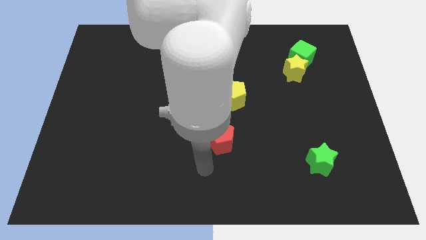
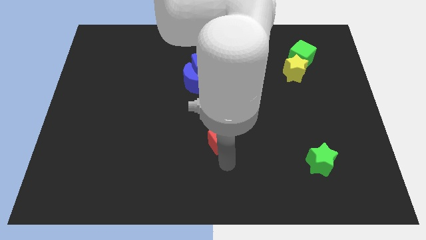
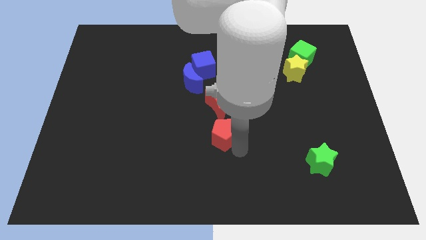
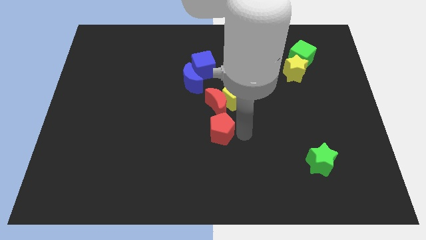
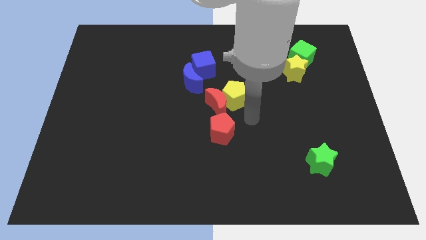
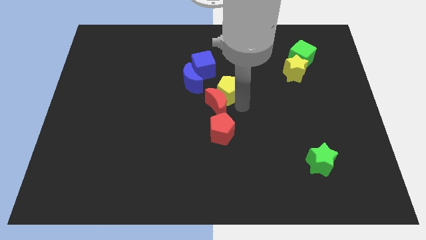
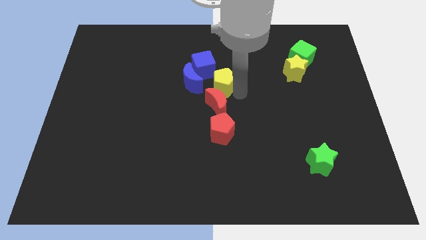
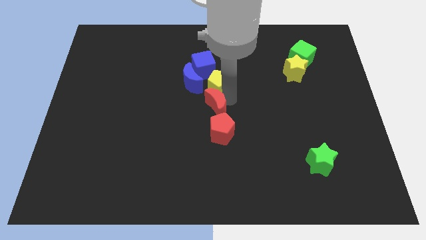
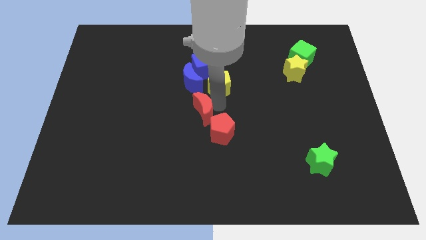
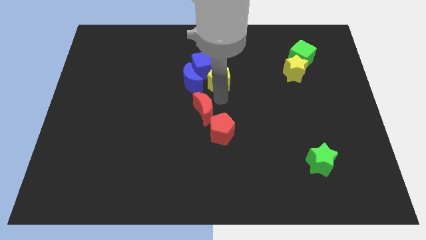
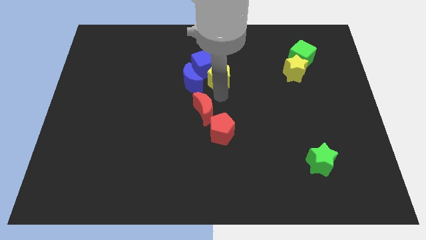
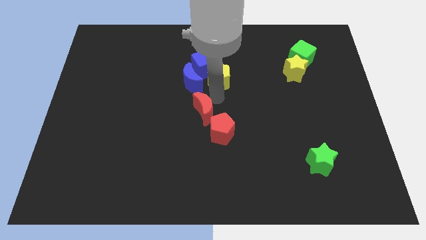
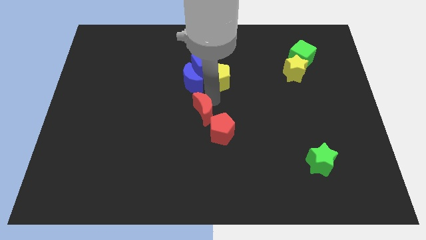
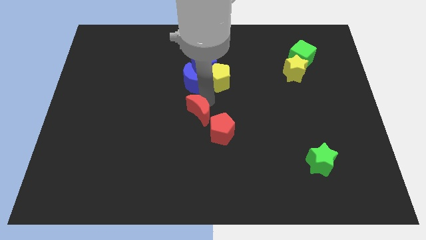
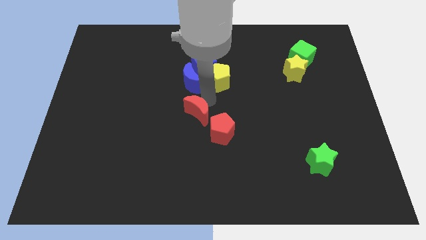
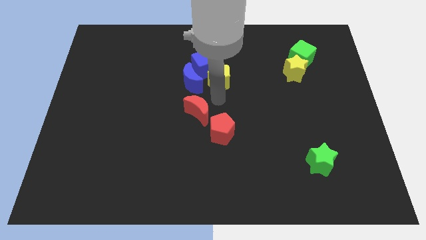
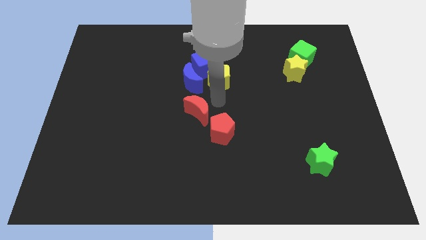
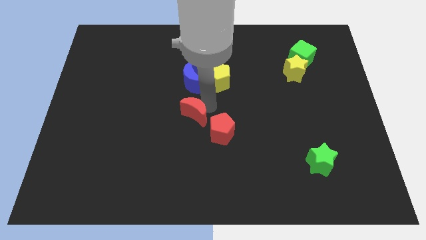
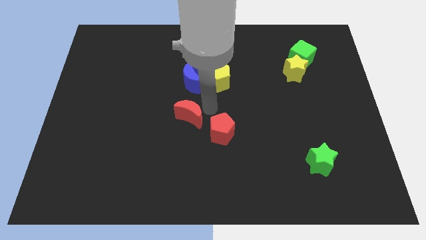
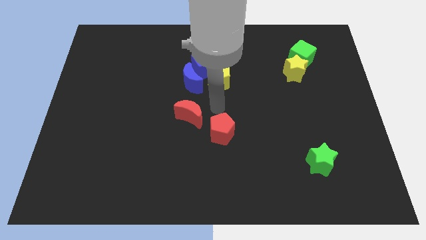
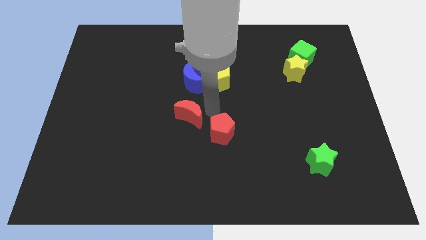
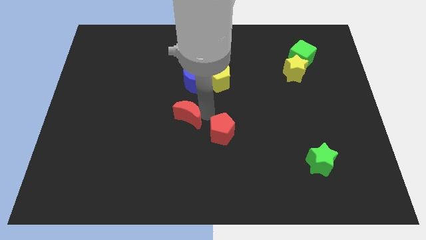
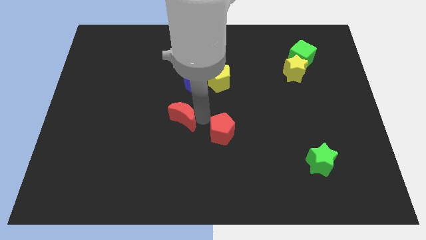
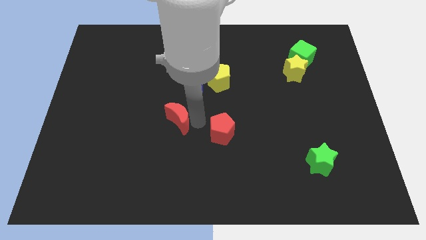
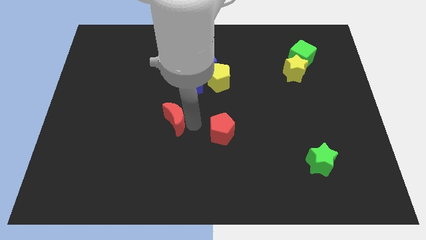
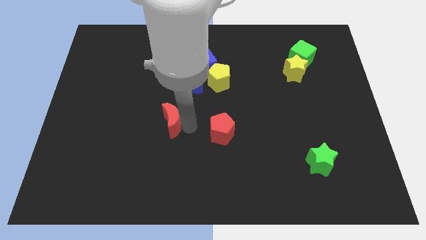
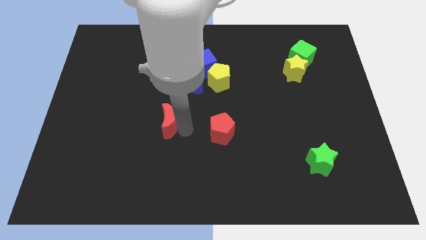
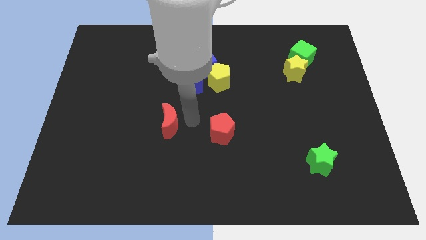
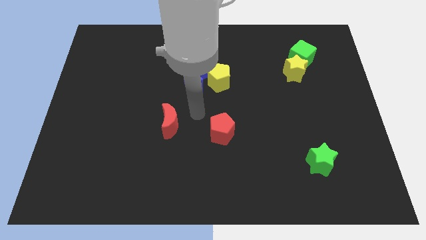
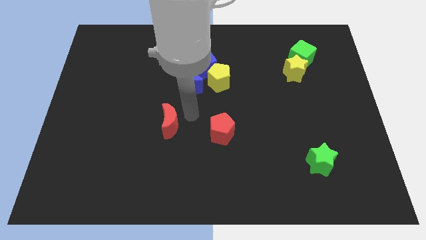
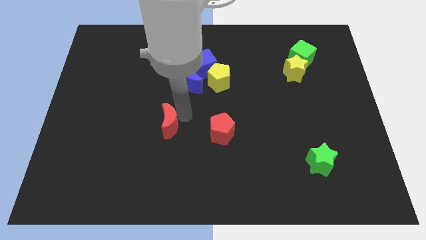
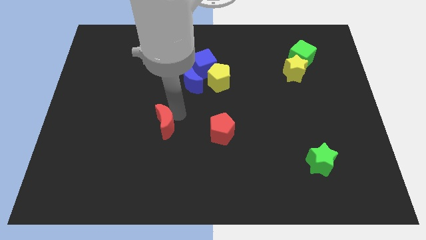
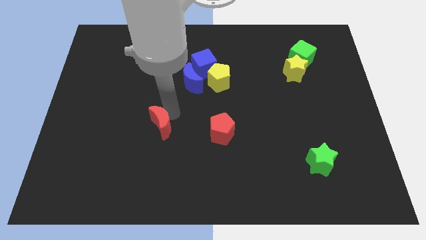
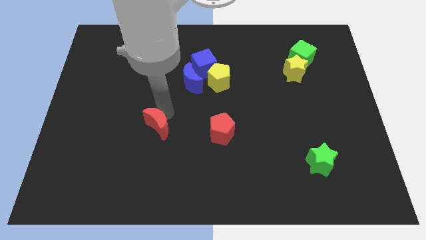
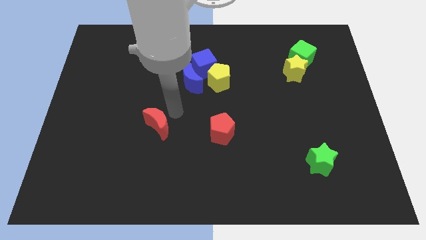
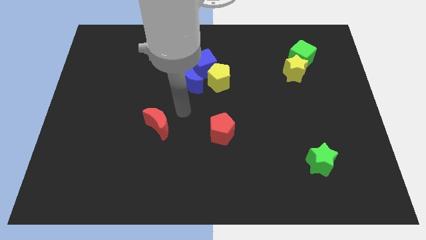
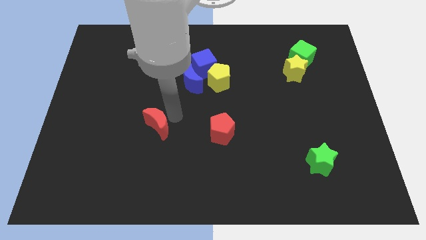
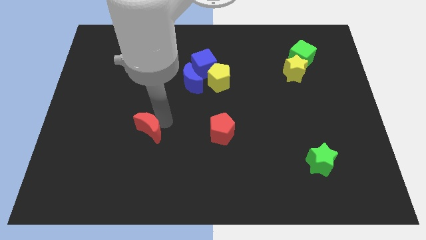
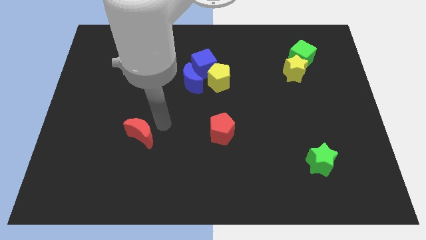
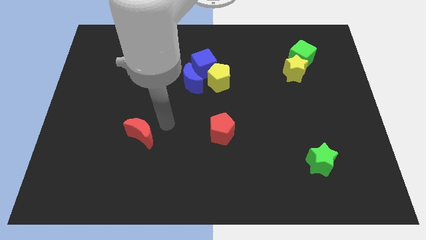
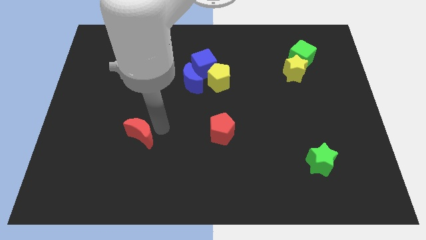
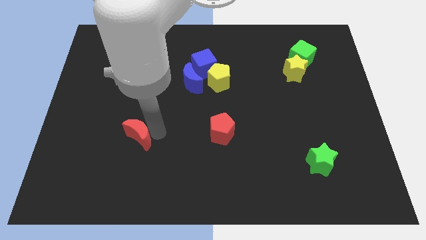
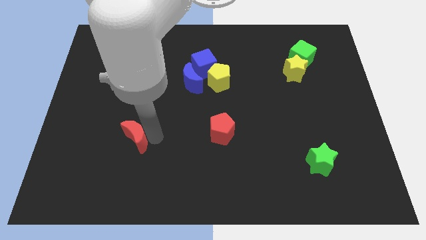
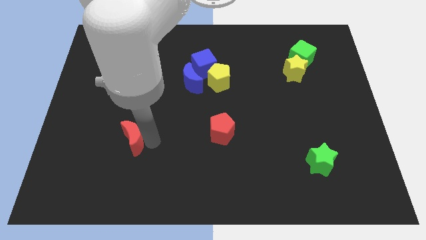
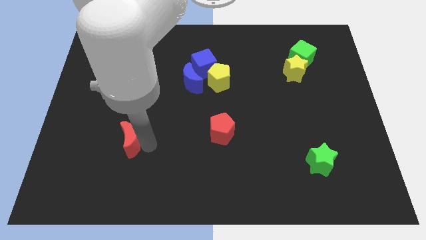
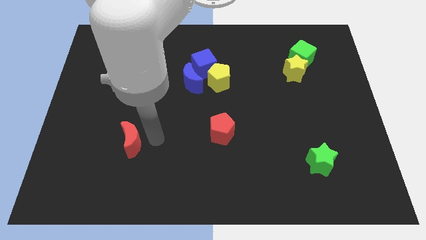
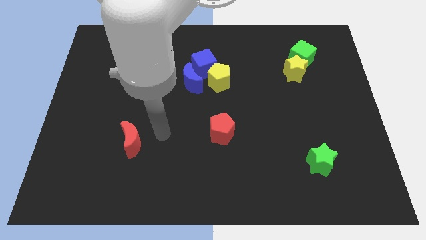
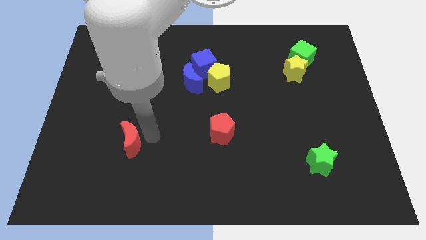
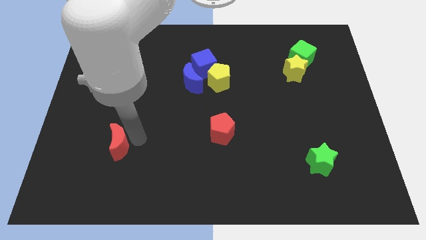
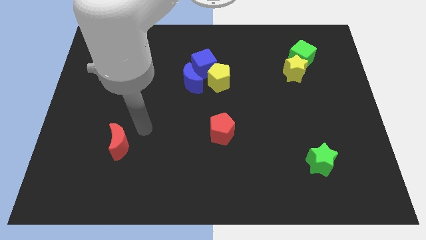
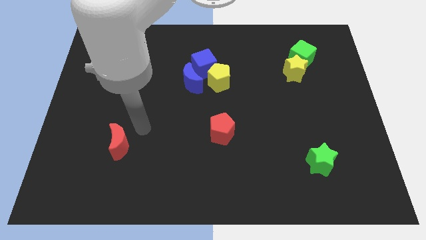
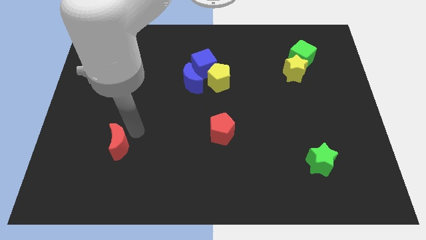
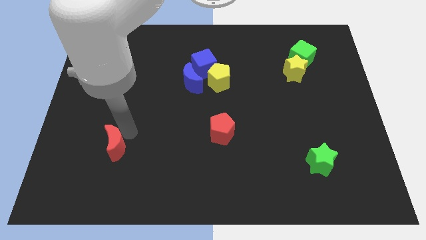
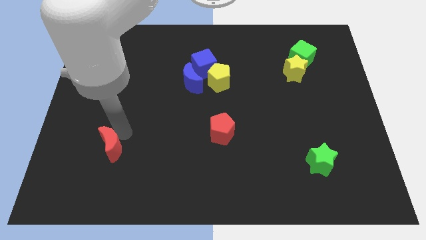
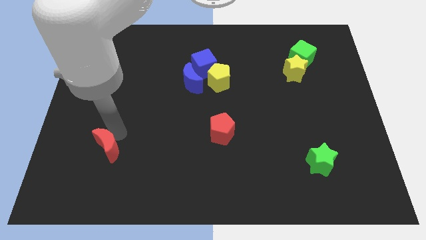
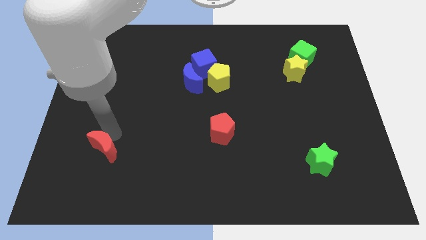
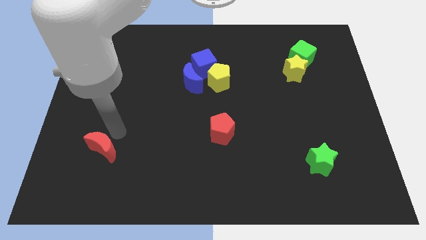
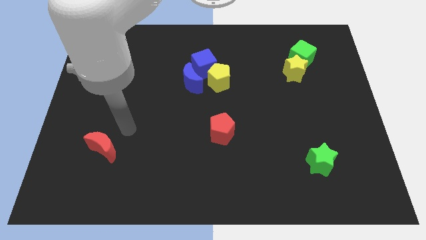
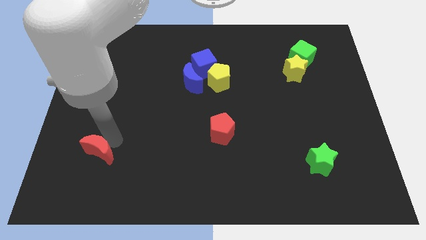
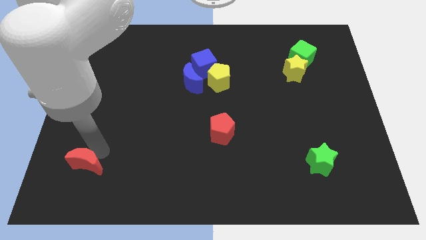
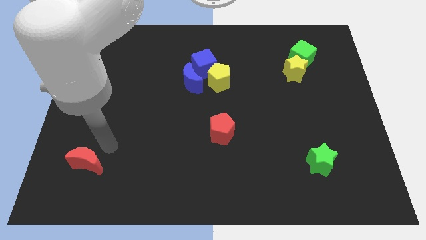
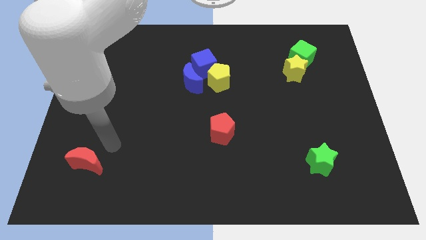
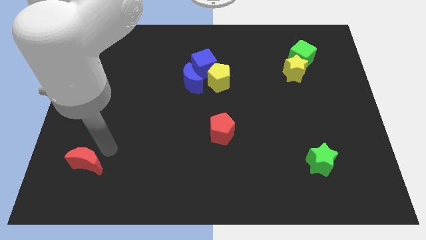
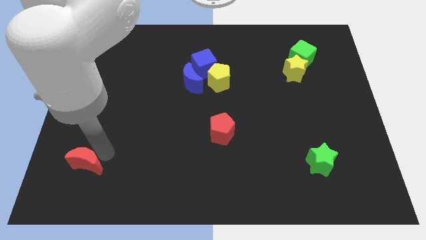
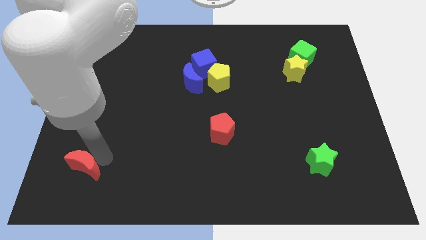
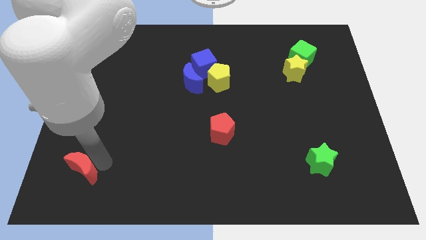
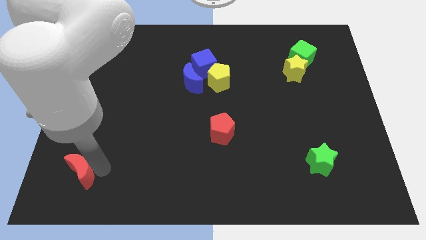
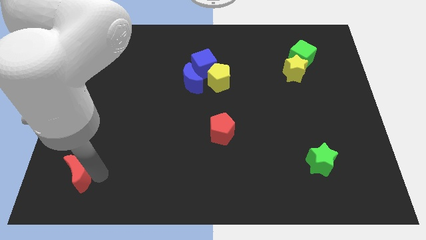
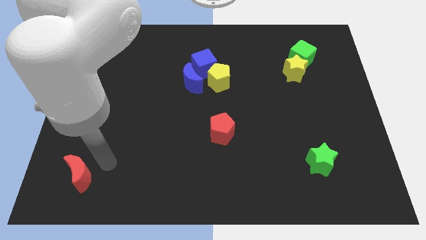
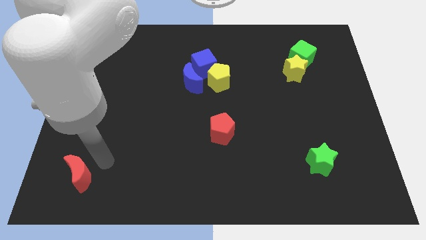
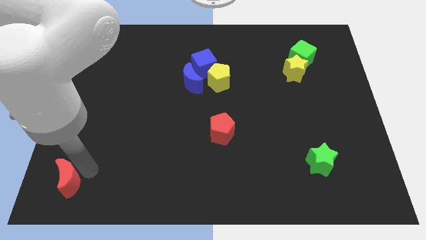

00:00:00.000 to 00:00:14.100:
slide the red moon to the bottom left corner

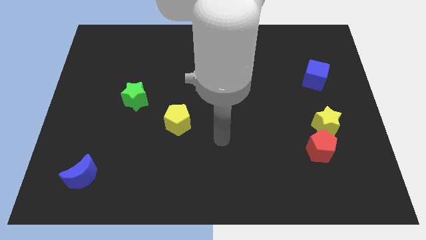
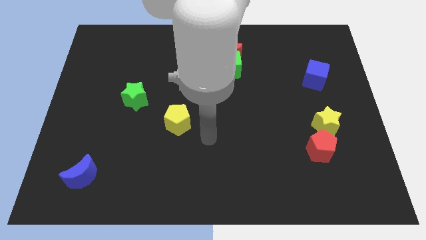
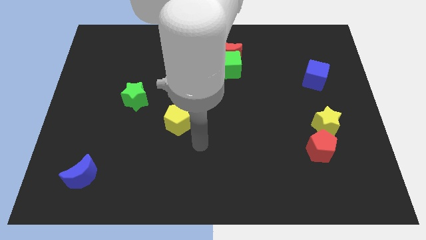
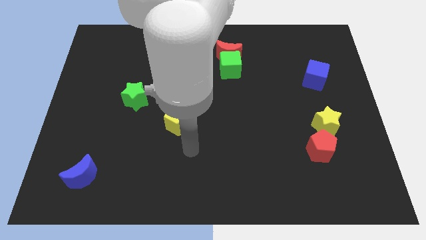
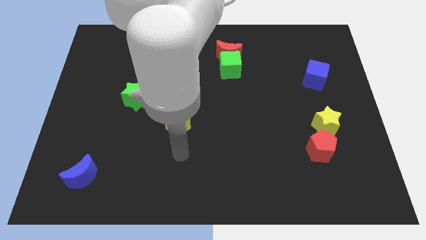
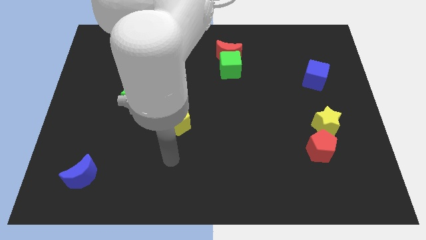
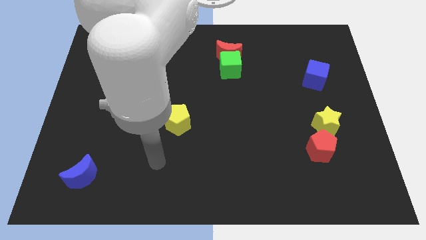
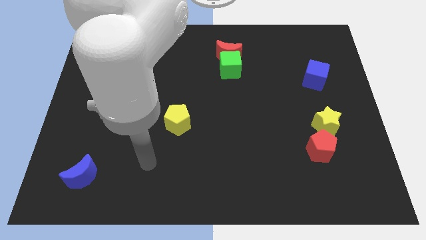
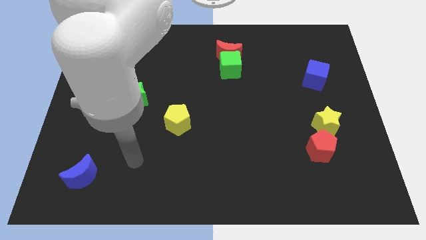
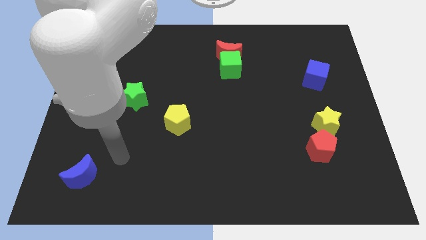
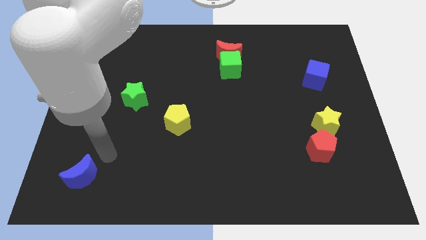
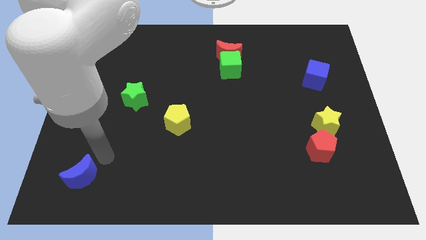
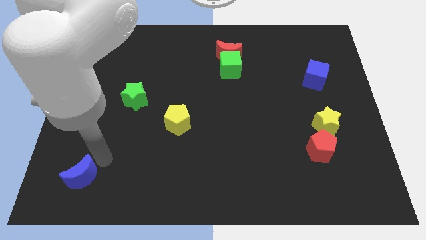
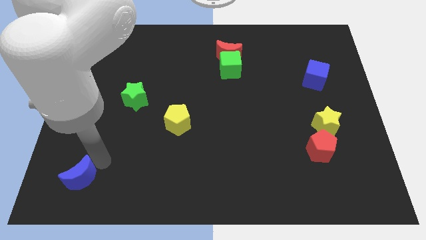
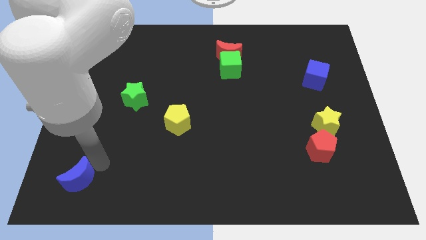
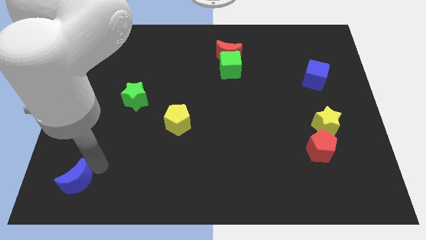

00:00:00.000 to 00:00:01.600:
slide the blue moon to the bottom left corner
